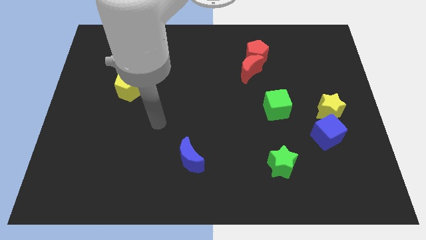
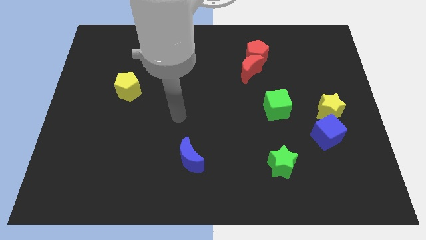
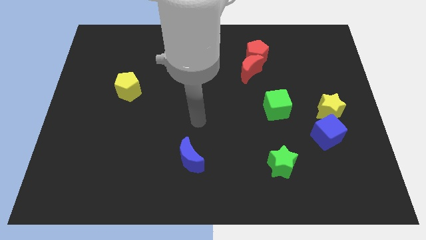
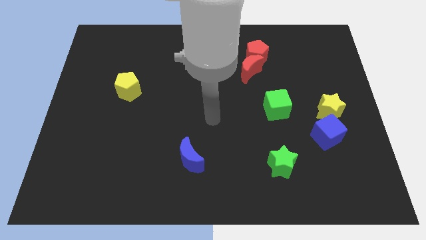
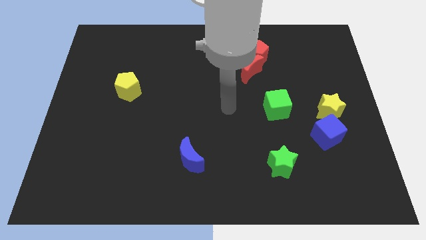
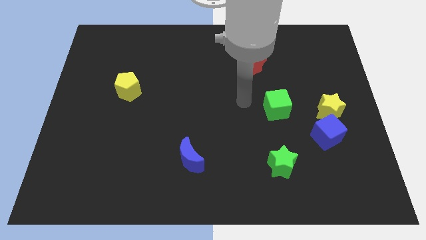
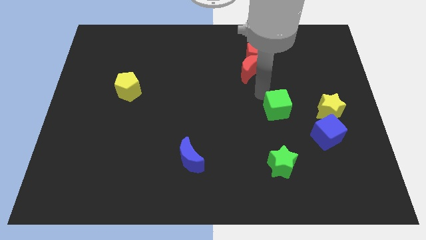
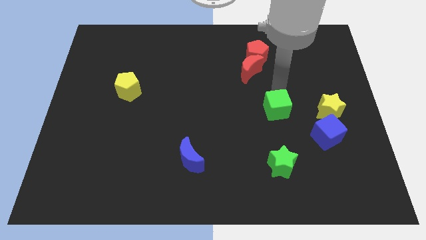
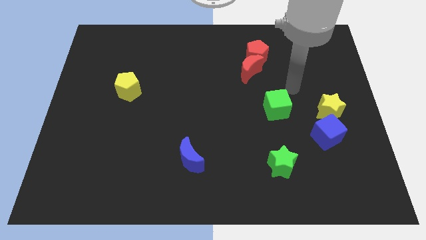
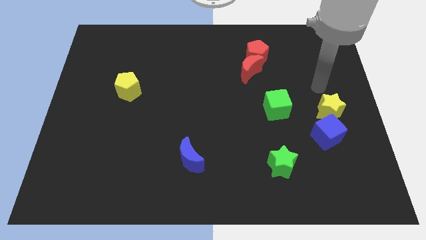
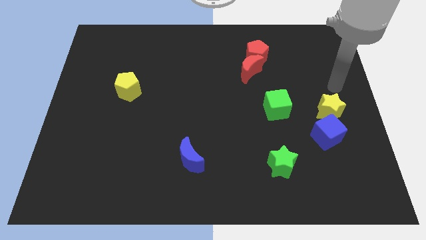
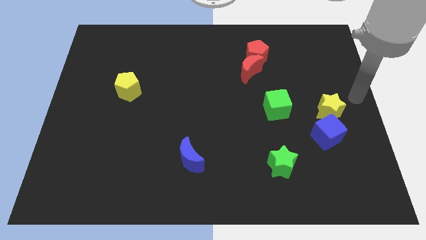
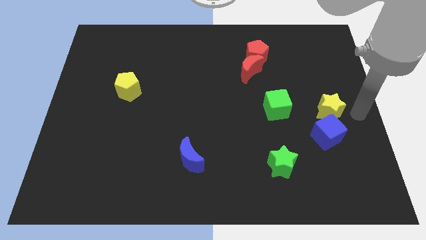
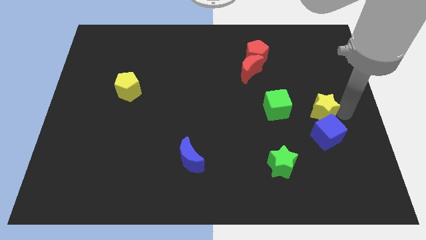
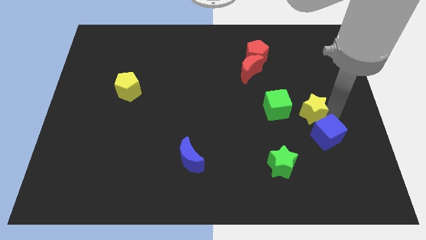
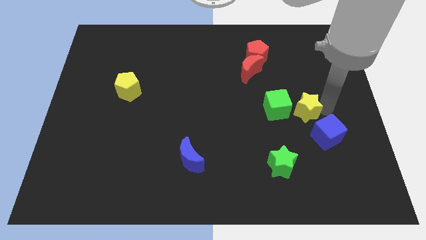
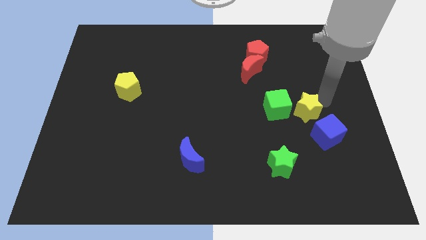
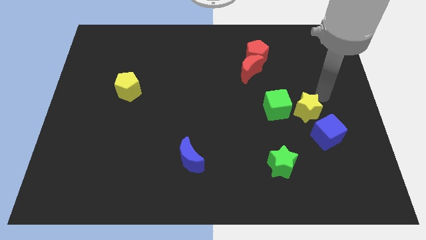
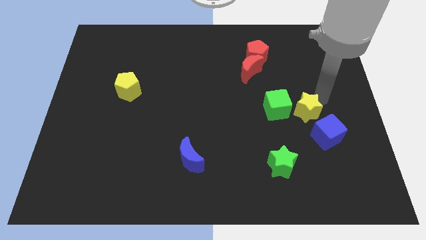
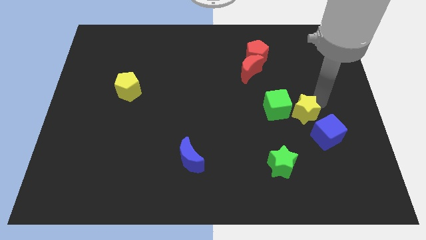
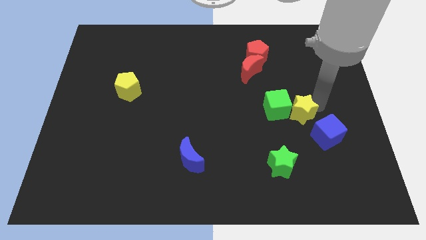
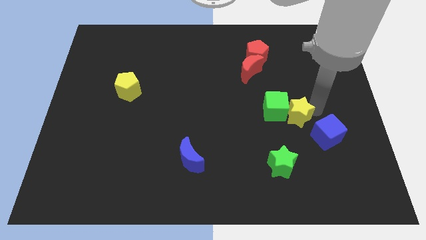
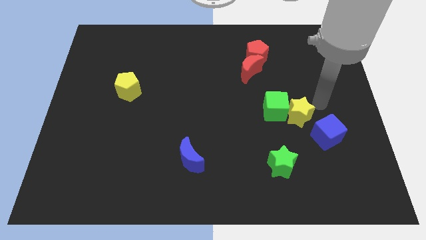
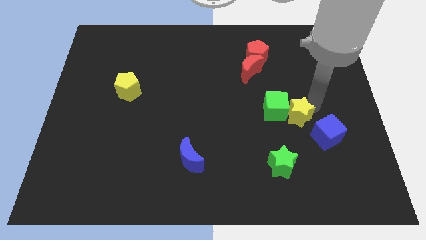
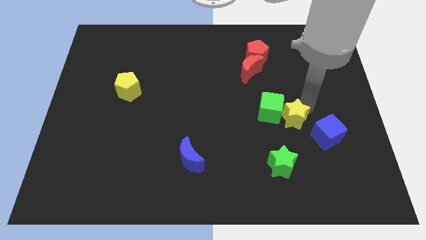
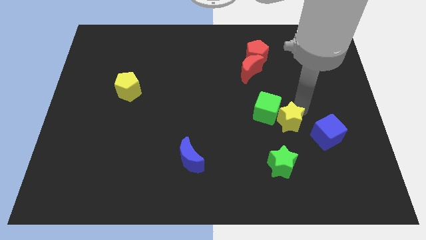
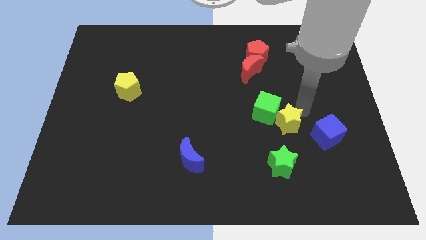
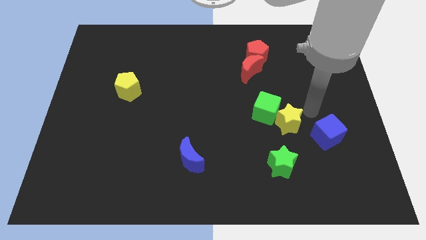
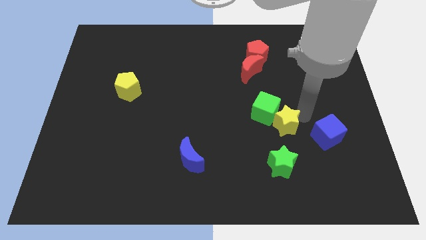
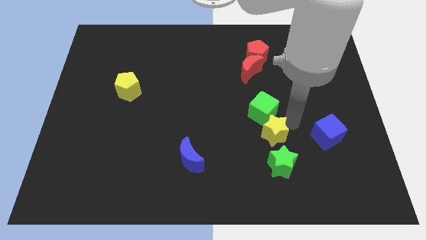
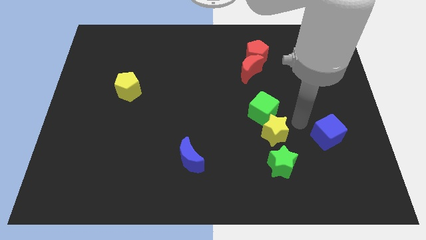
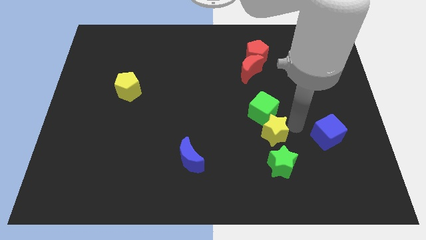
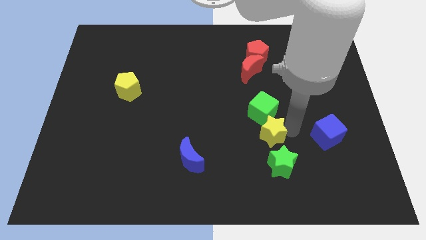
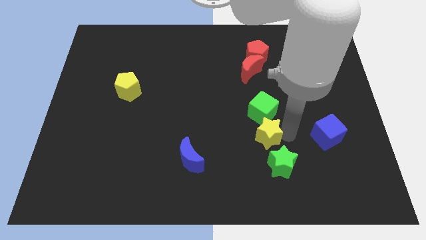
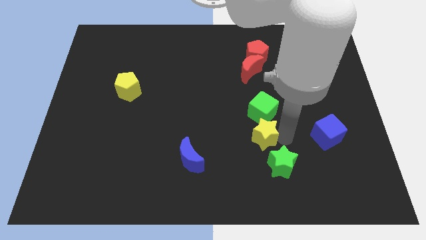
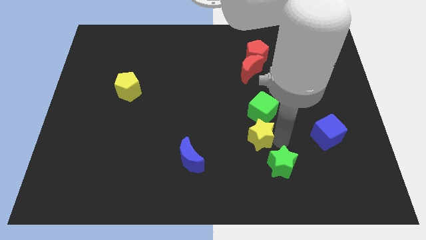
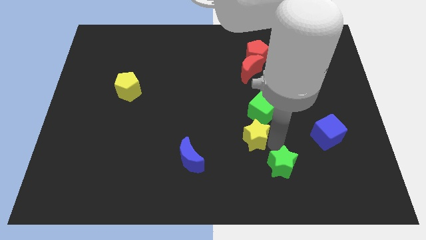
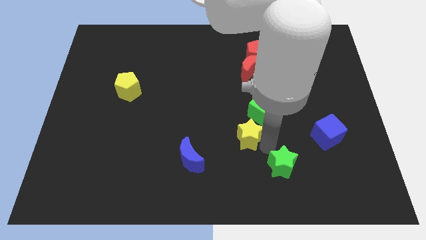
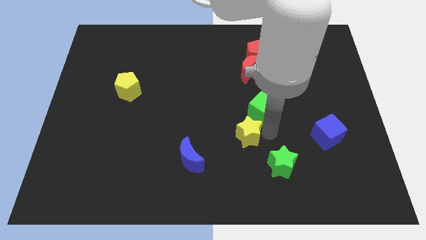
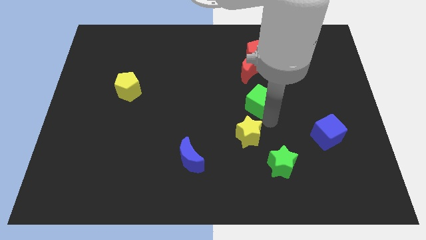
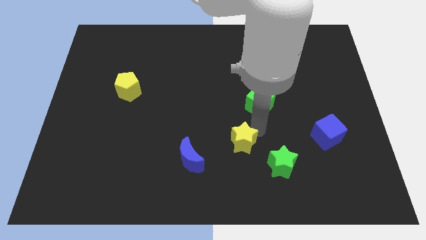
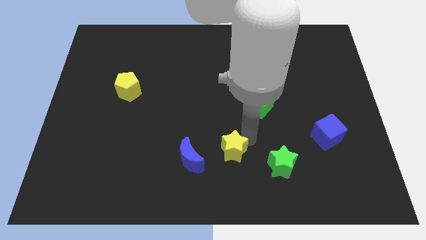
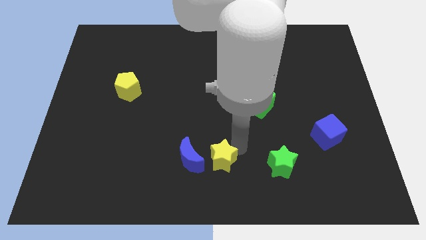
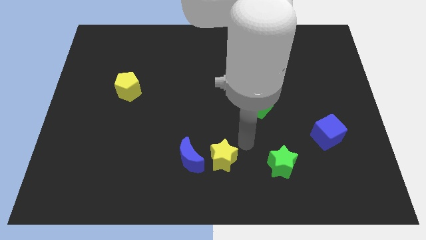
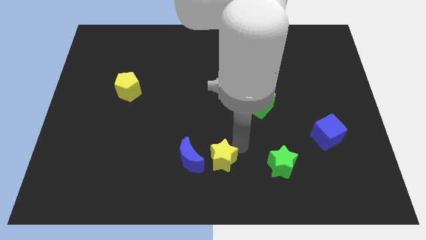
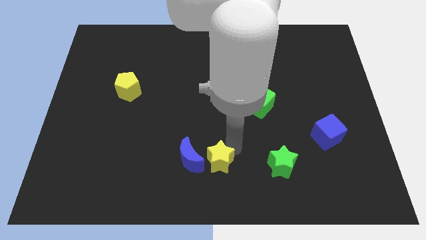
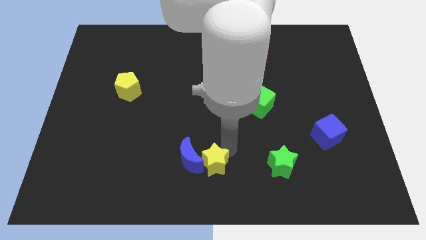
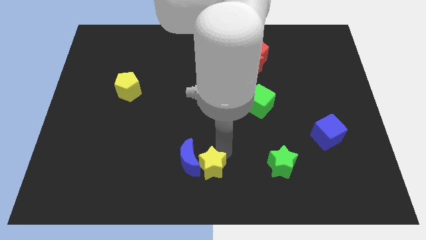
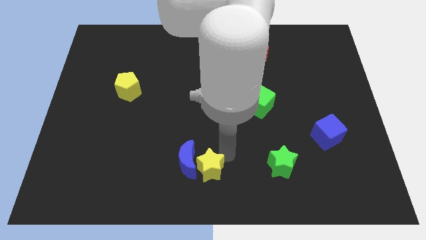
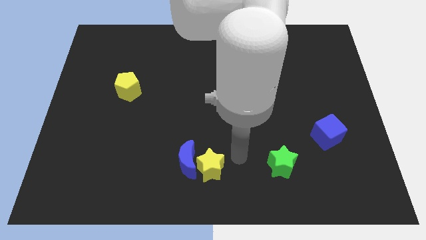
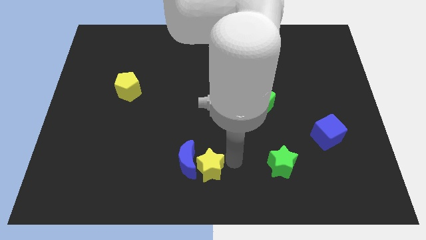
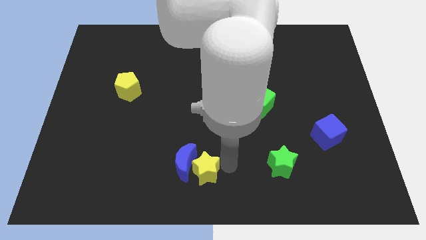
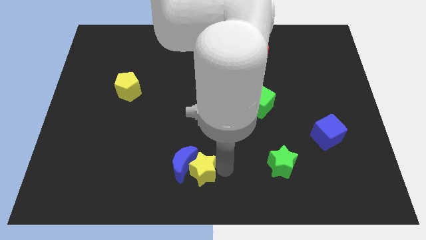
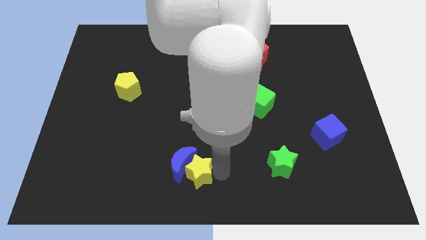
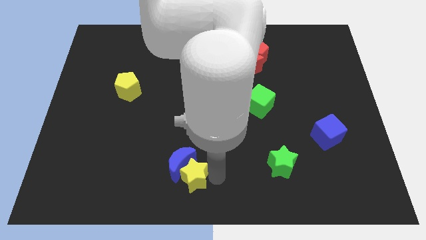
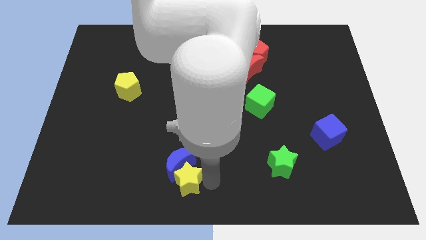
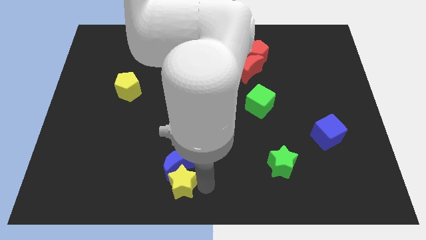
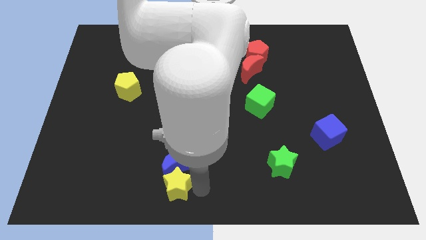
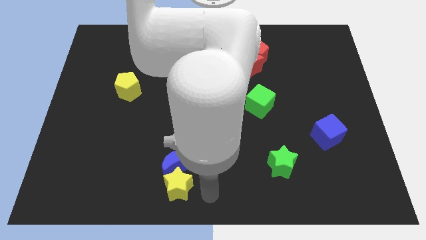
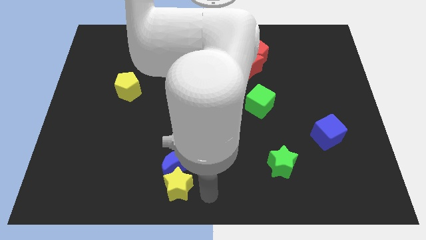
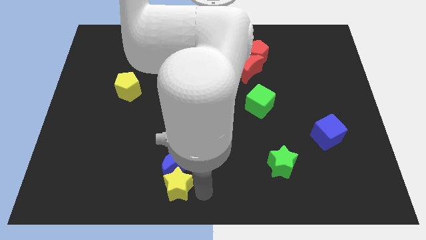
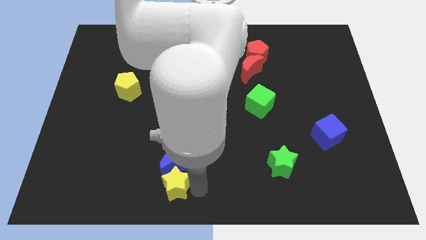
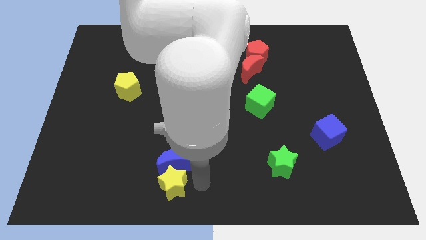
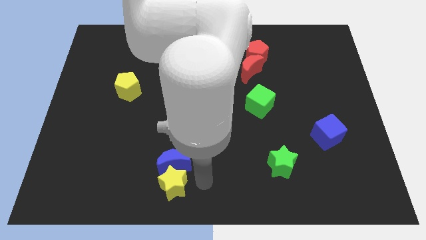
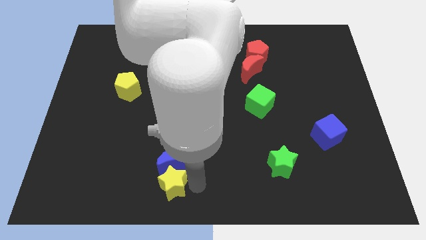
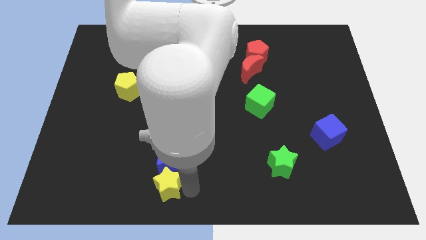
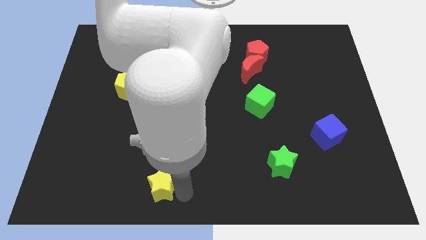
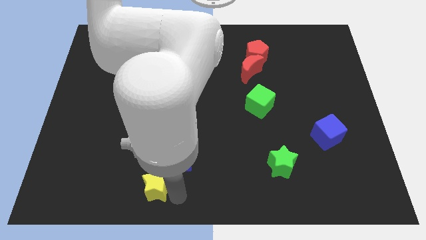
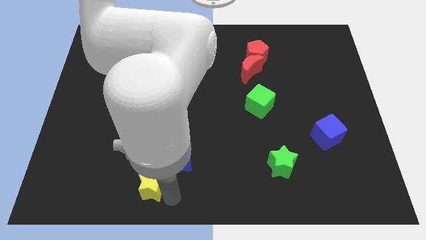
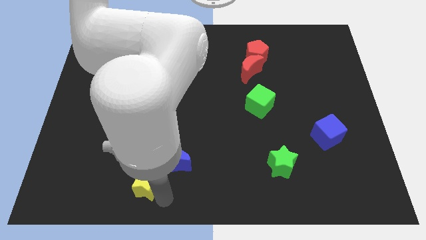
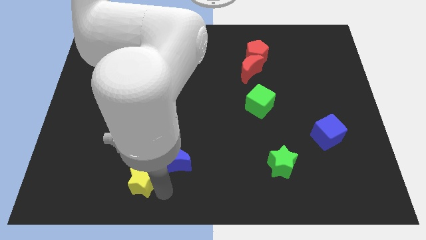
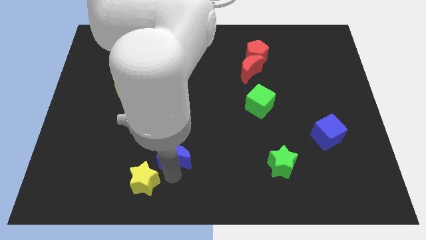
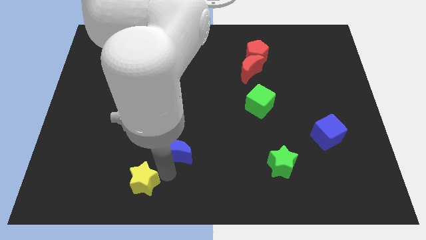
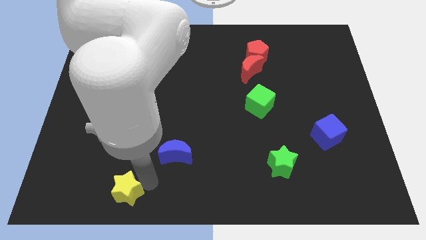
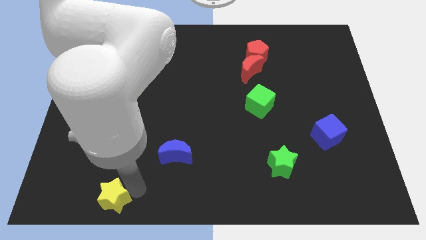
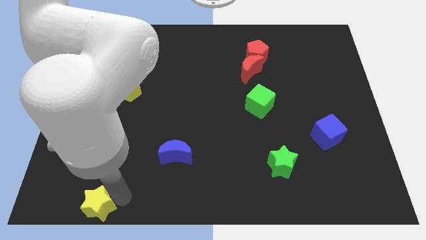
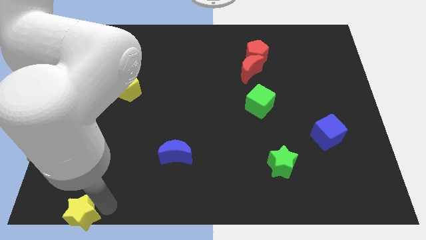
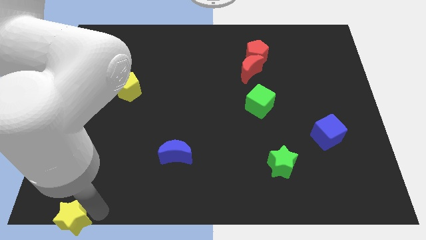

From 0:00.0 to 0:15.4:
put the yellow star to the lower left corner
